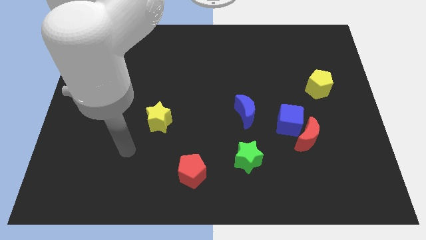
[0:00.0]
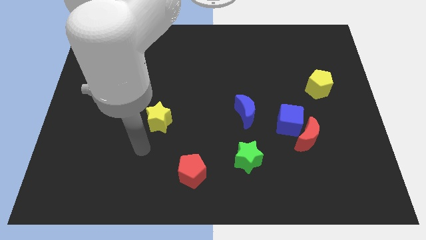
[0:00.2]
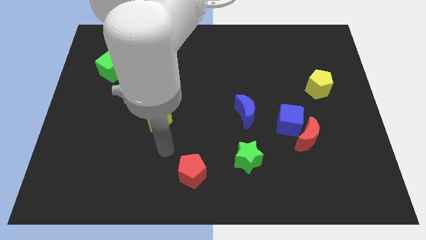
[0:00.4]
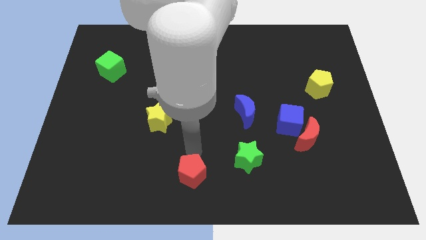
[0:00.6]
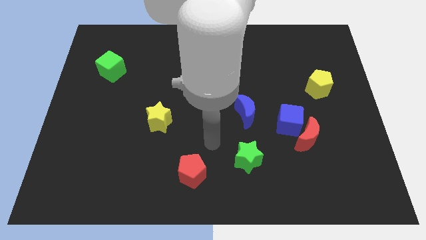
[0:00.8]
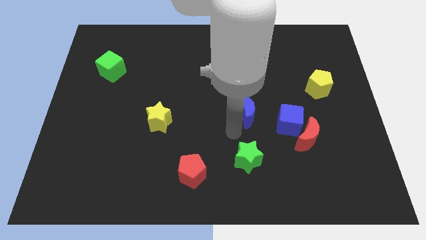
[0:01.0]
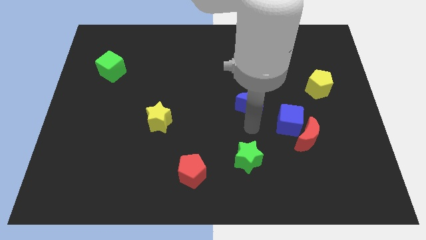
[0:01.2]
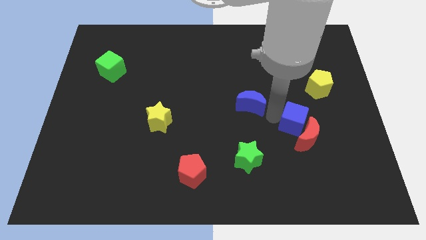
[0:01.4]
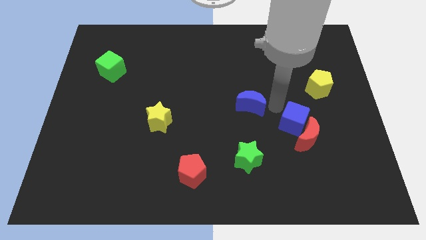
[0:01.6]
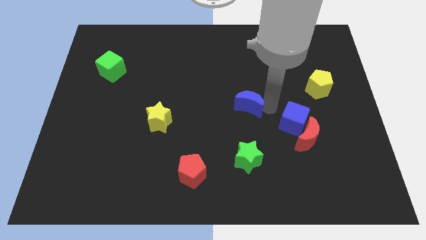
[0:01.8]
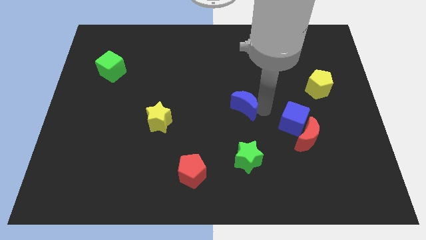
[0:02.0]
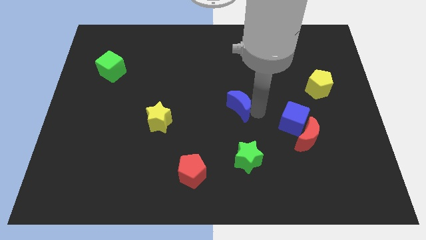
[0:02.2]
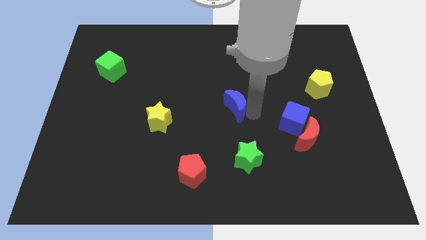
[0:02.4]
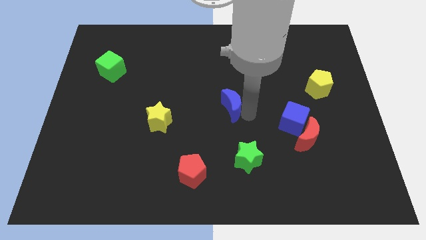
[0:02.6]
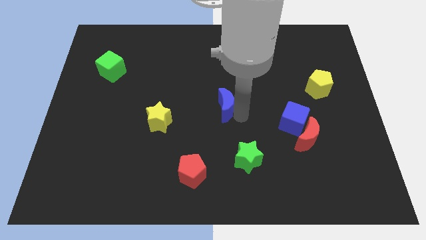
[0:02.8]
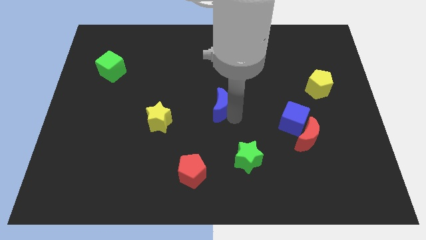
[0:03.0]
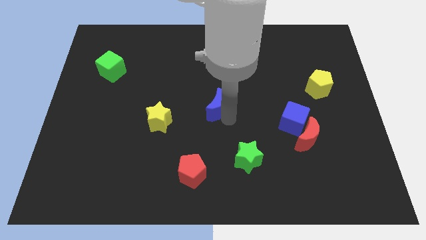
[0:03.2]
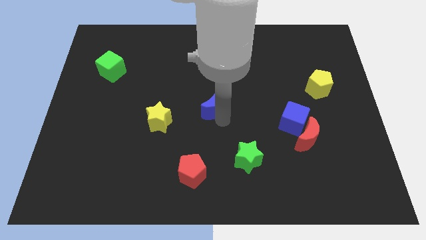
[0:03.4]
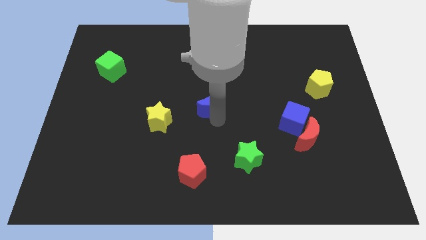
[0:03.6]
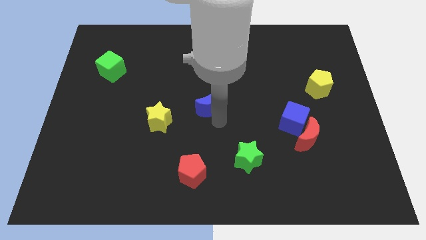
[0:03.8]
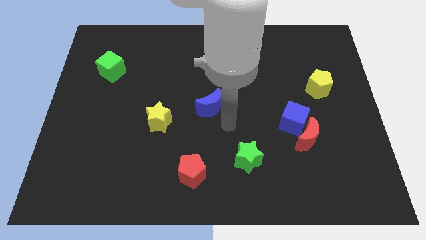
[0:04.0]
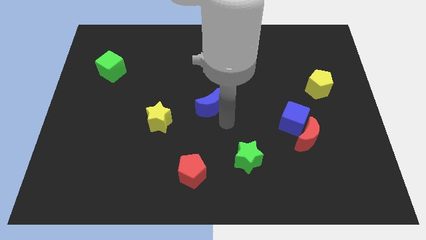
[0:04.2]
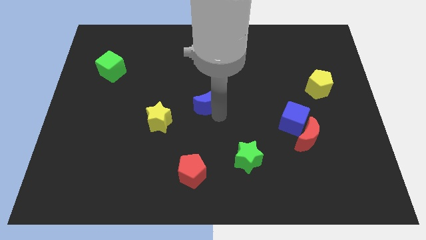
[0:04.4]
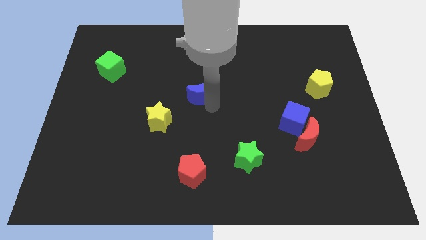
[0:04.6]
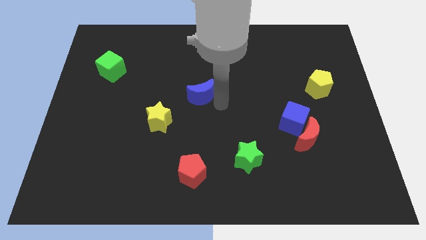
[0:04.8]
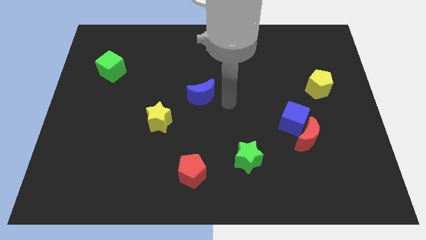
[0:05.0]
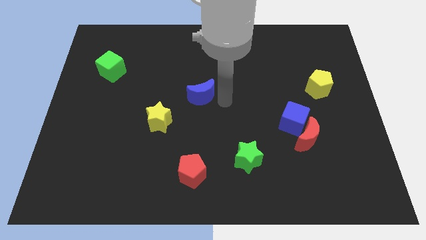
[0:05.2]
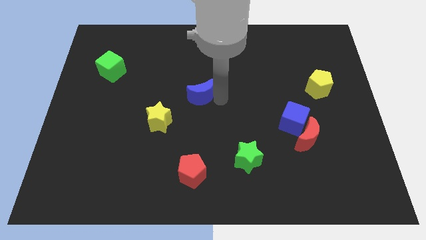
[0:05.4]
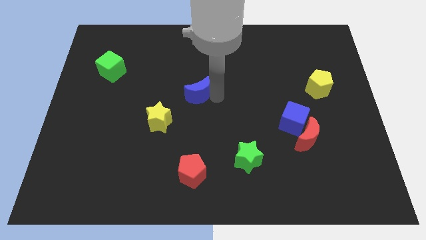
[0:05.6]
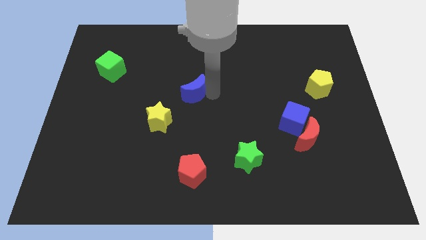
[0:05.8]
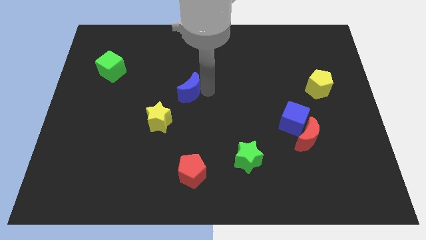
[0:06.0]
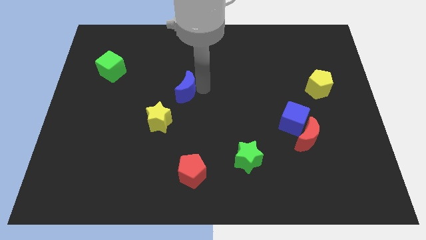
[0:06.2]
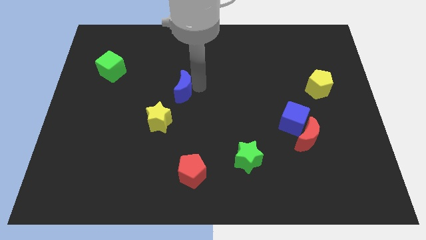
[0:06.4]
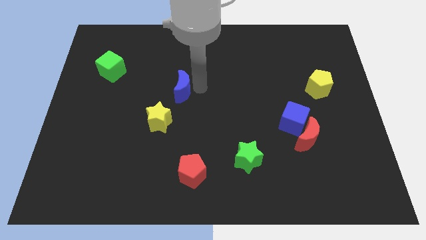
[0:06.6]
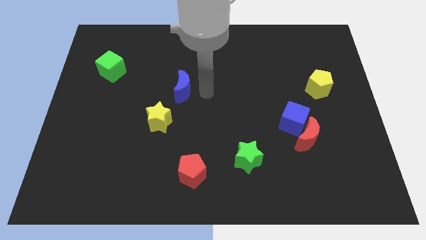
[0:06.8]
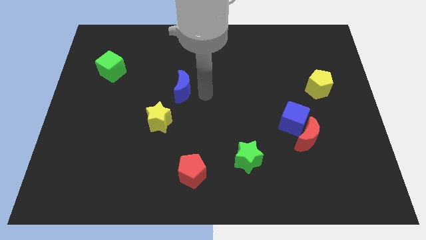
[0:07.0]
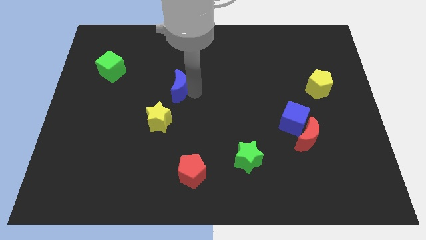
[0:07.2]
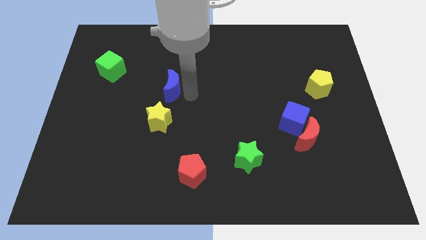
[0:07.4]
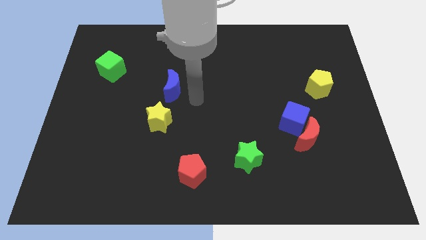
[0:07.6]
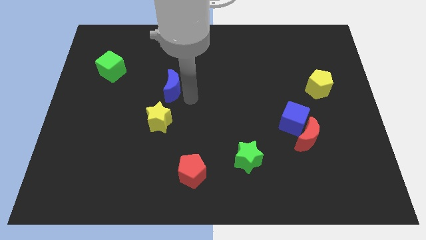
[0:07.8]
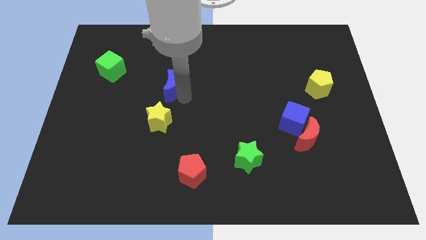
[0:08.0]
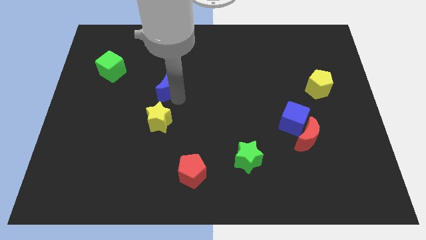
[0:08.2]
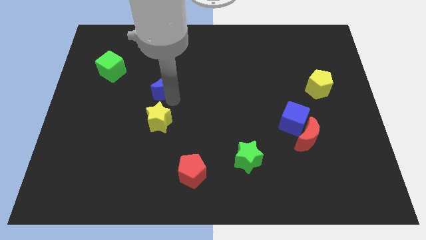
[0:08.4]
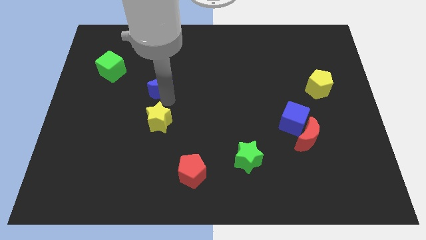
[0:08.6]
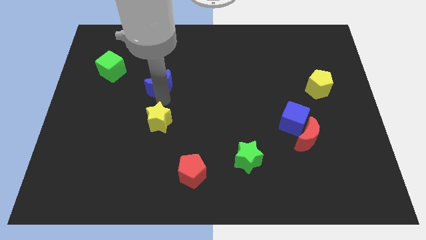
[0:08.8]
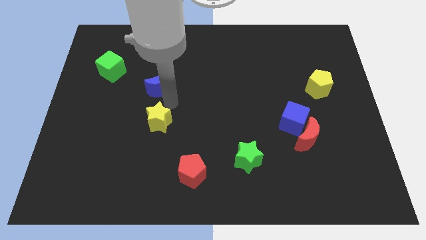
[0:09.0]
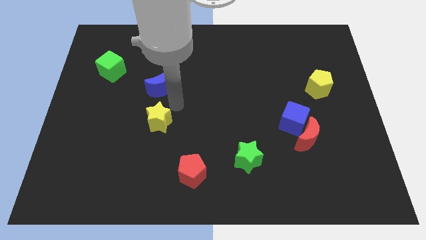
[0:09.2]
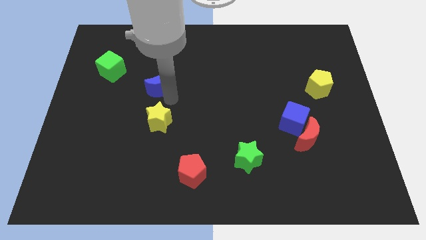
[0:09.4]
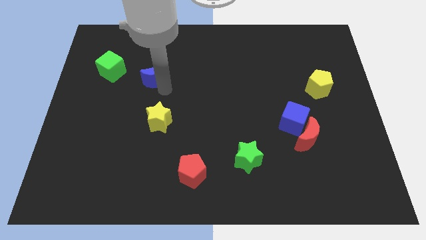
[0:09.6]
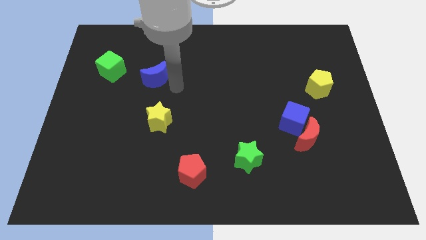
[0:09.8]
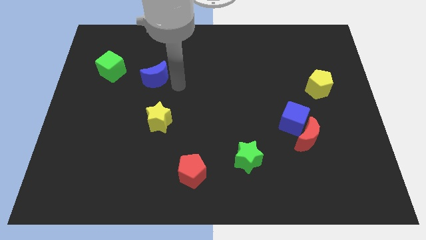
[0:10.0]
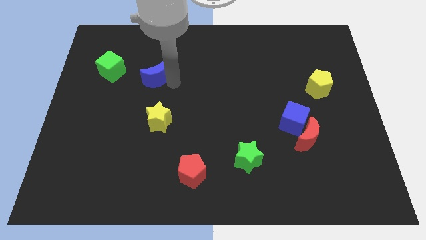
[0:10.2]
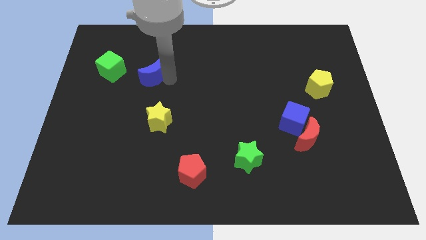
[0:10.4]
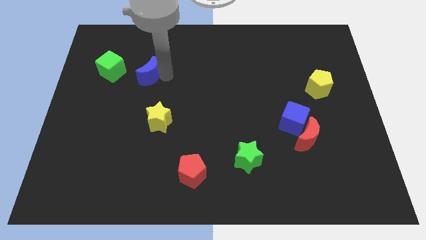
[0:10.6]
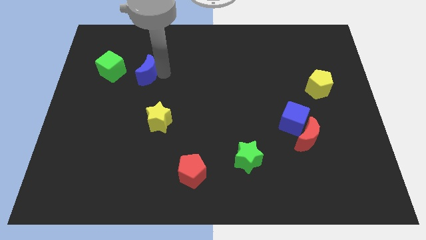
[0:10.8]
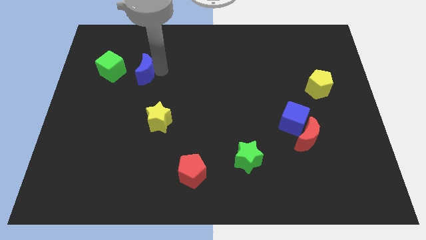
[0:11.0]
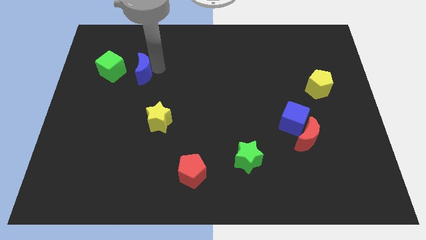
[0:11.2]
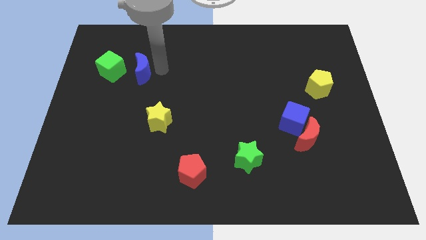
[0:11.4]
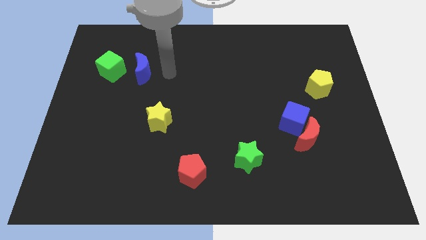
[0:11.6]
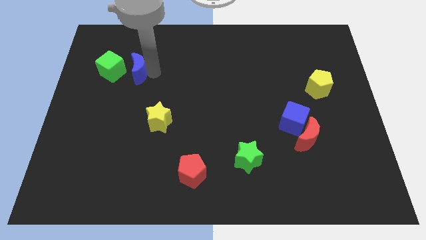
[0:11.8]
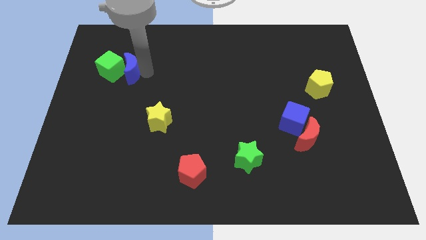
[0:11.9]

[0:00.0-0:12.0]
put the blue moon next to the green cube

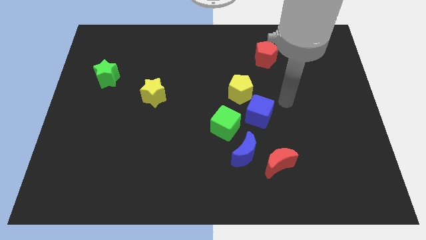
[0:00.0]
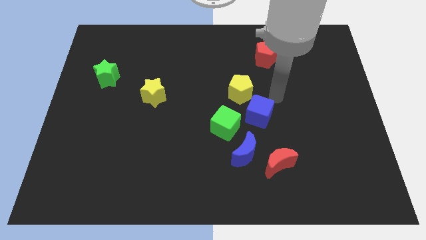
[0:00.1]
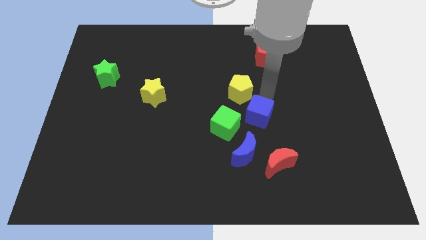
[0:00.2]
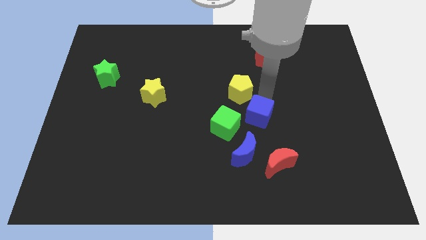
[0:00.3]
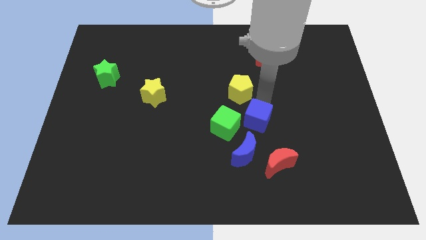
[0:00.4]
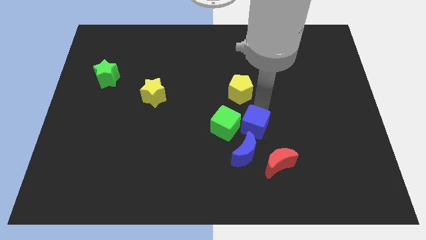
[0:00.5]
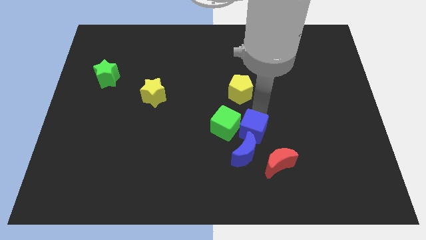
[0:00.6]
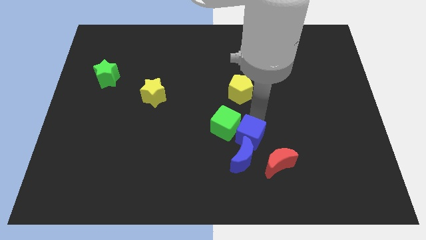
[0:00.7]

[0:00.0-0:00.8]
push the blue cube towards the blue moon
